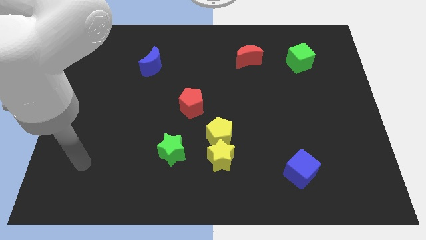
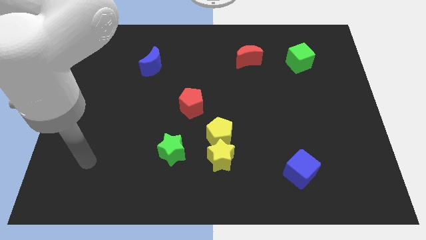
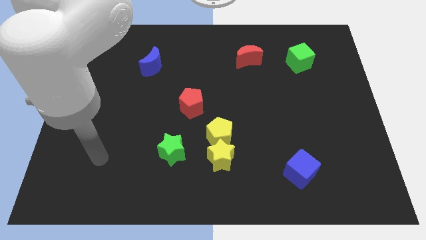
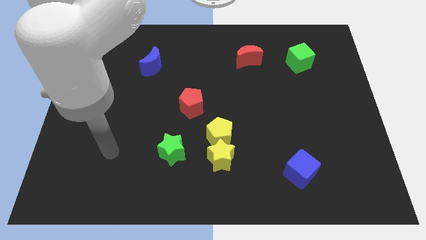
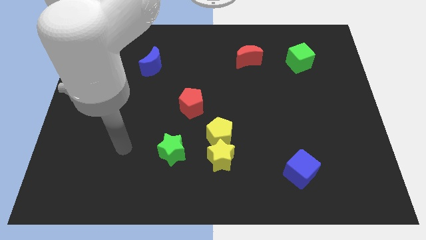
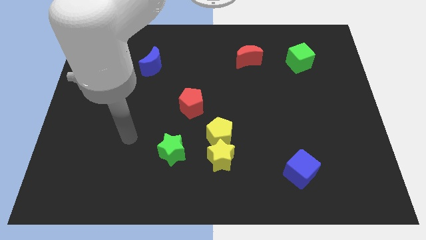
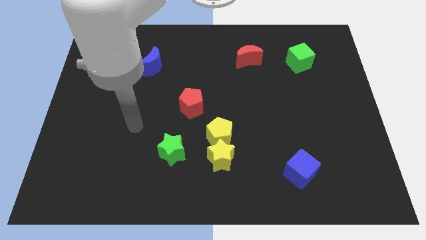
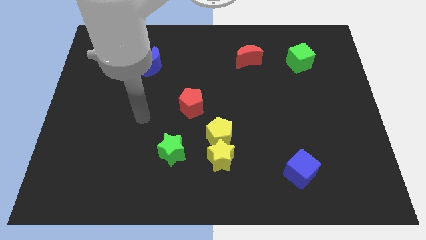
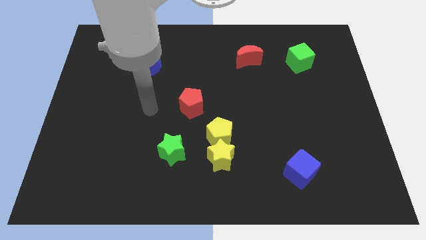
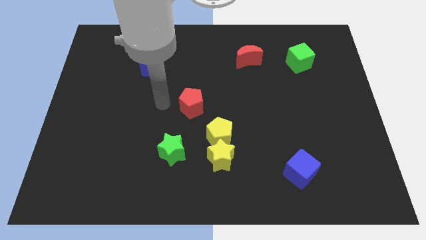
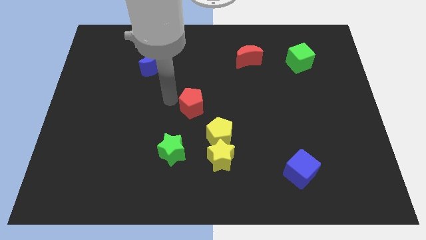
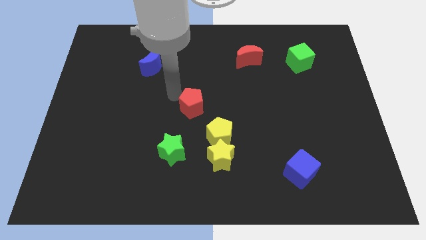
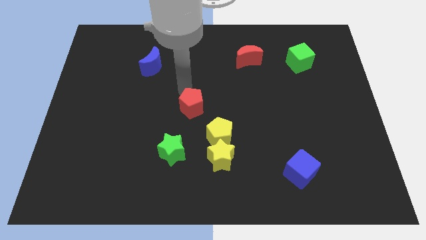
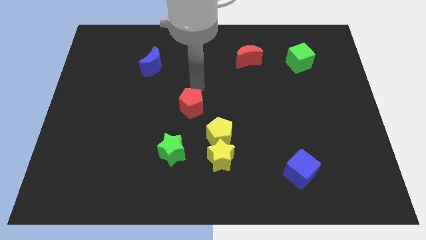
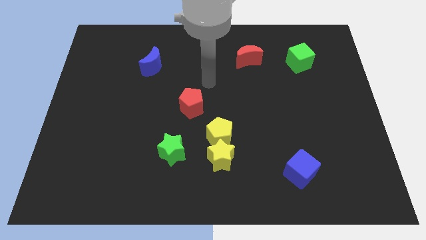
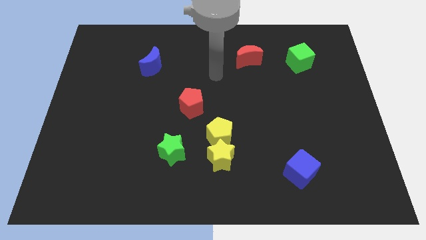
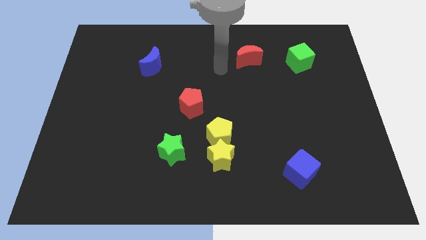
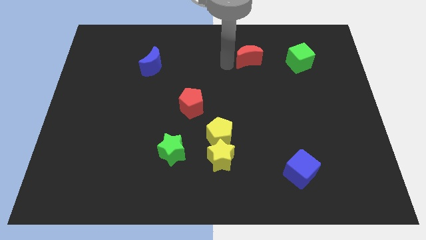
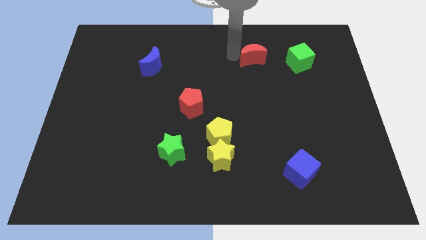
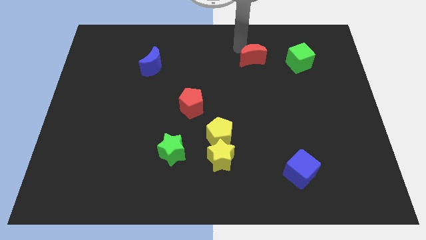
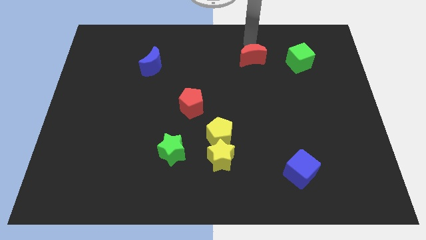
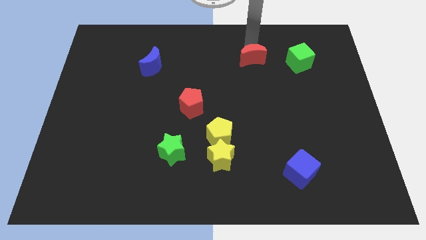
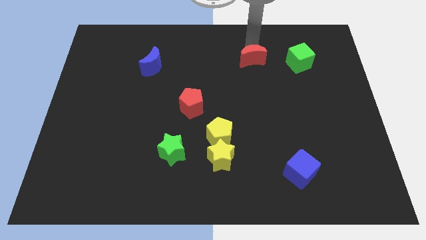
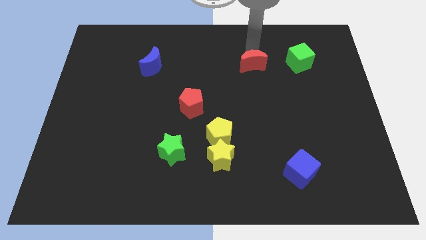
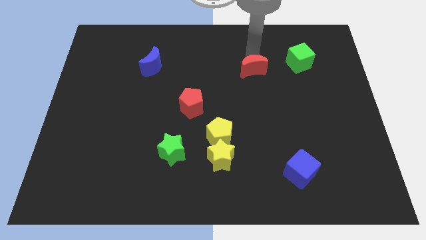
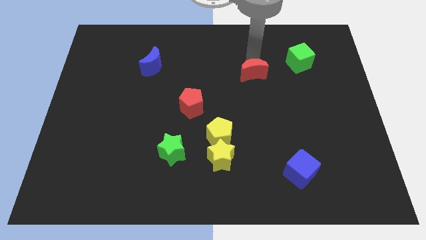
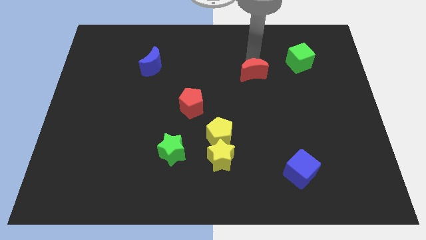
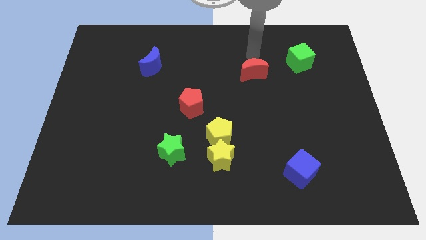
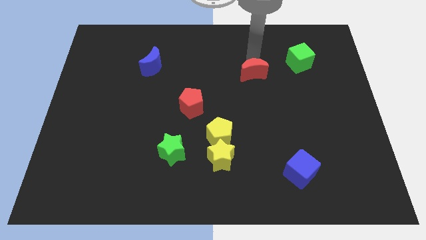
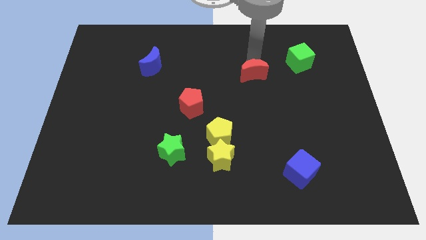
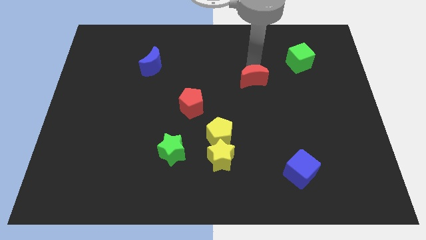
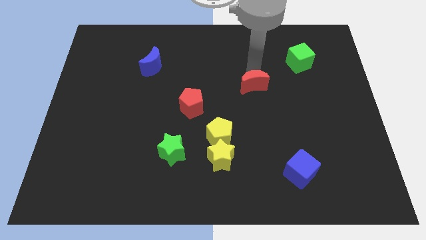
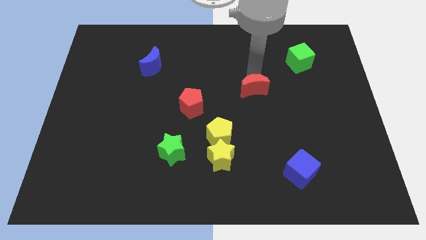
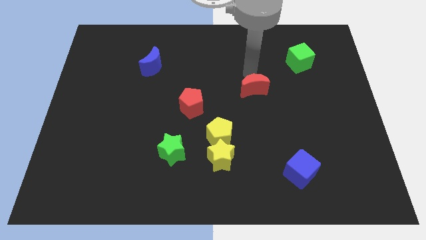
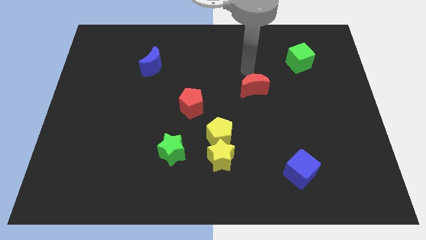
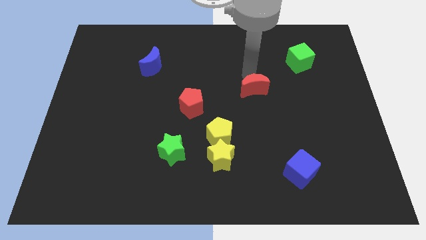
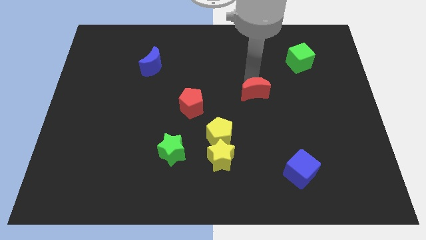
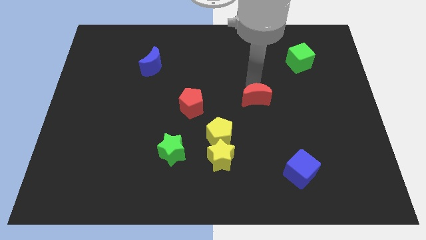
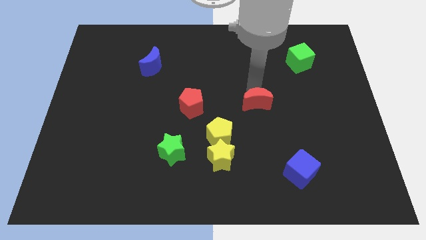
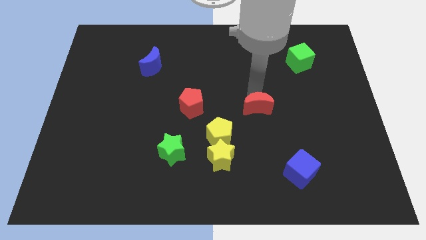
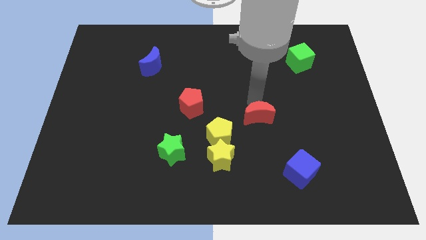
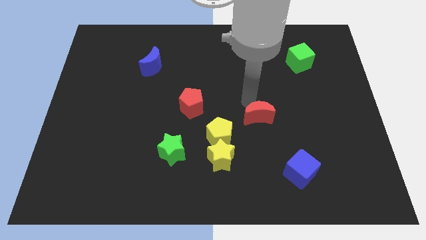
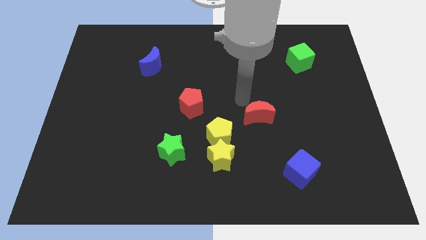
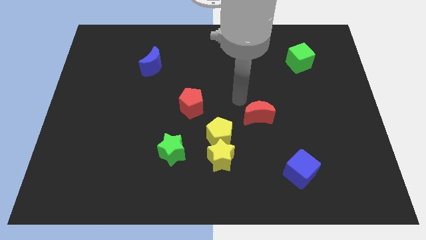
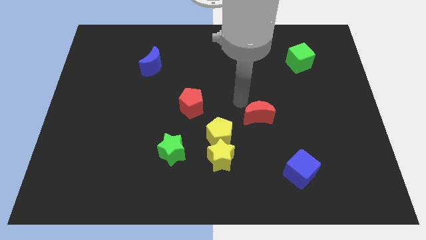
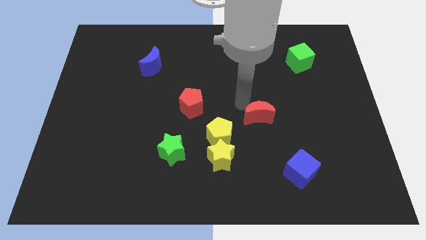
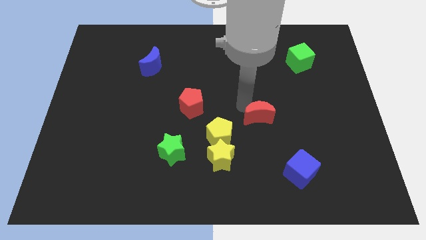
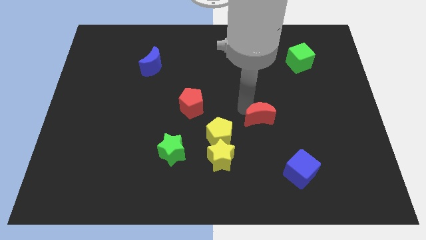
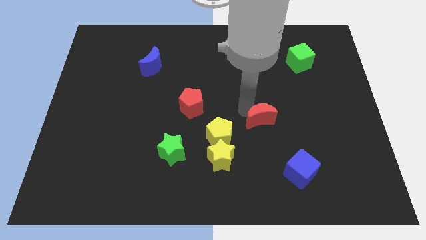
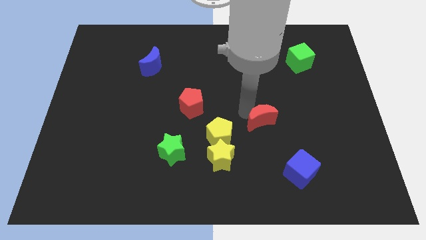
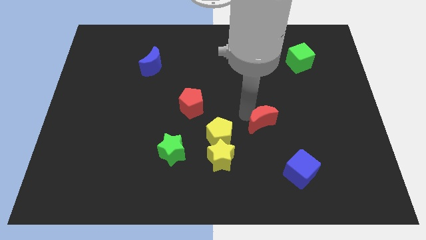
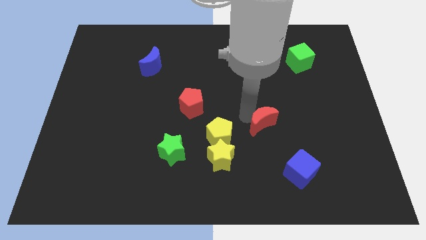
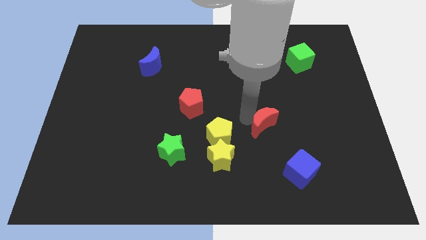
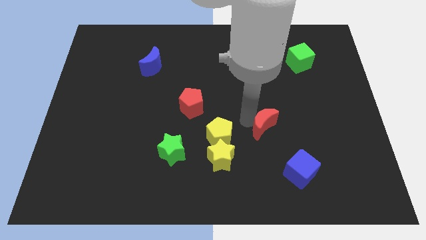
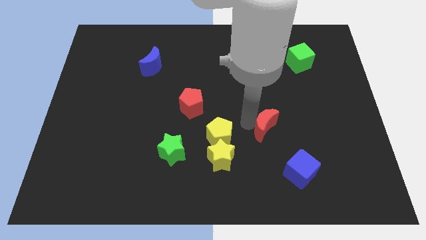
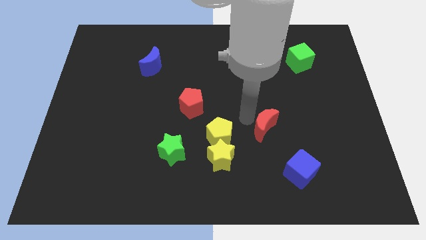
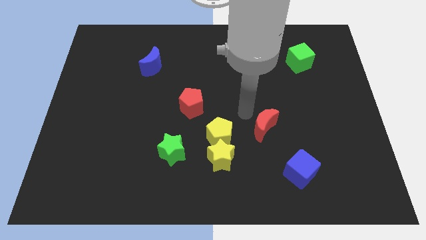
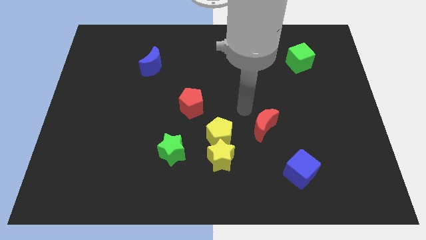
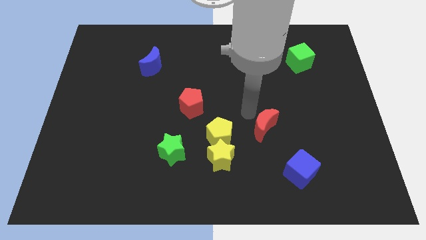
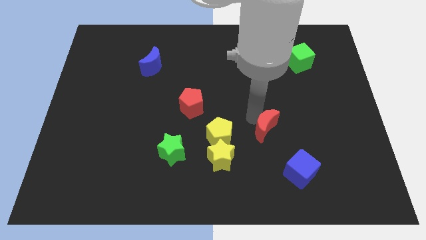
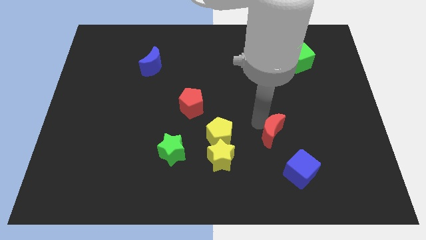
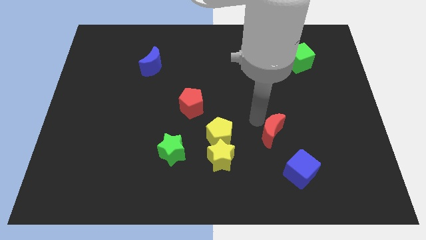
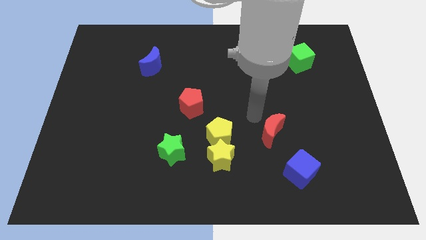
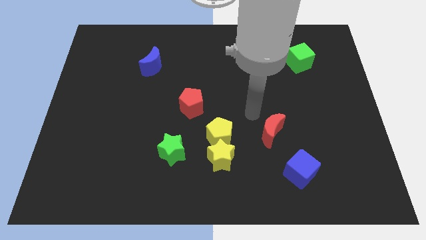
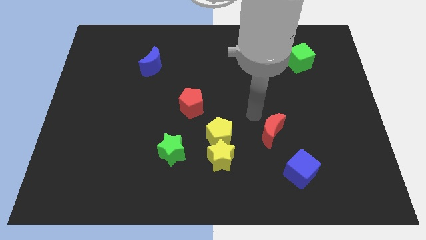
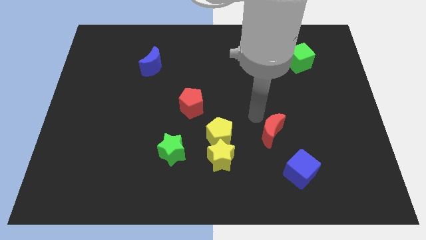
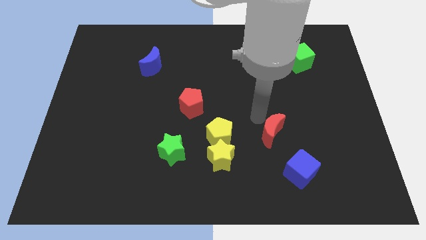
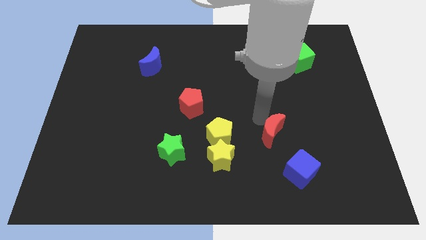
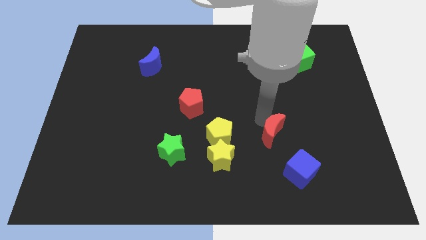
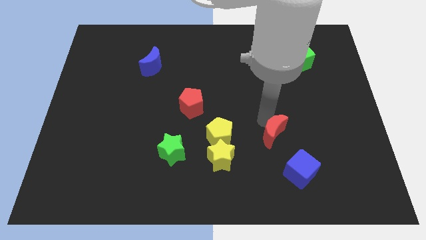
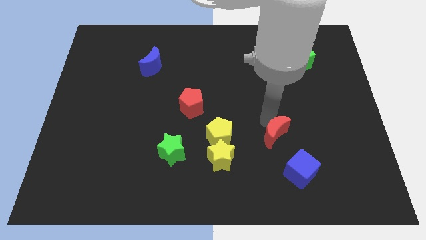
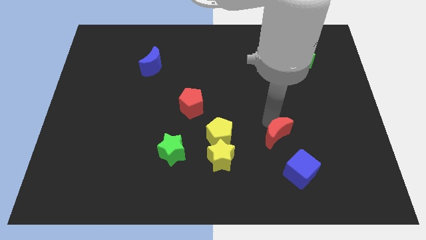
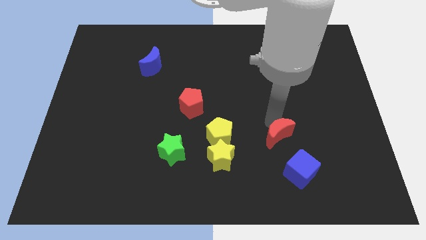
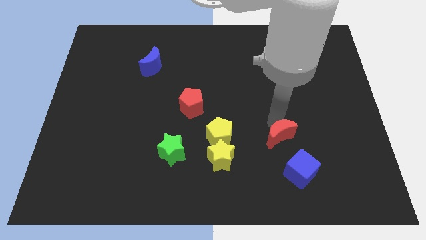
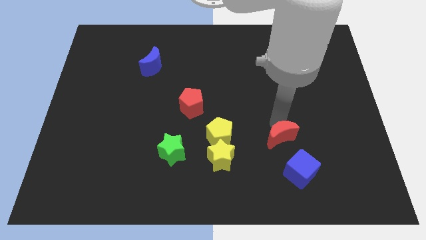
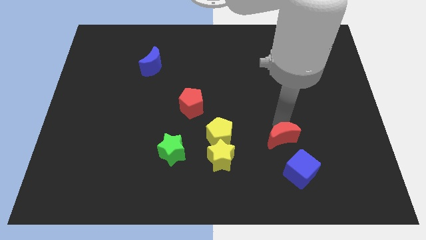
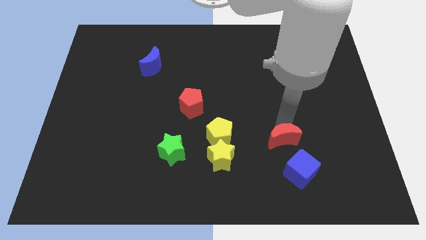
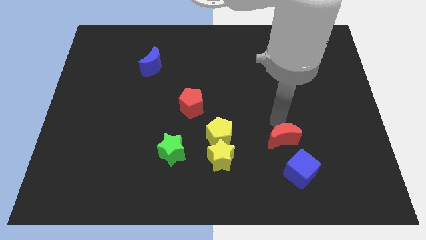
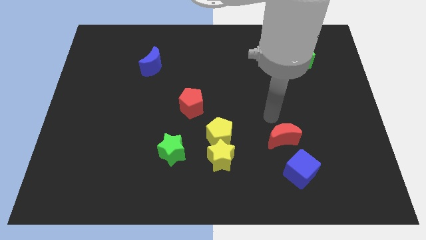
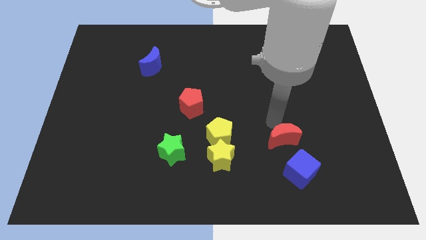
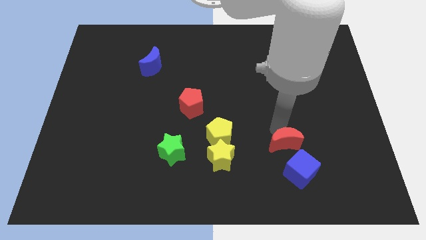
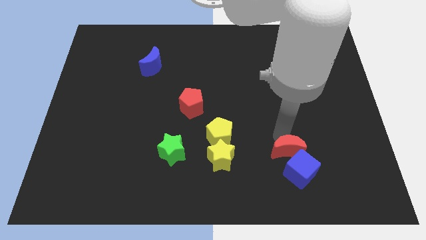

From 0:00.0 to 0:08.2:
move the red moon to the blue cube
